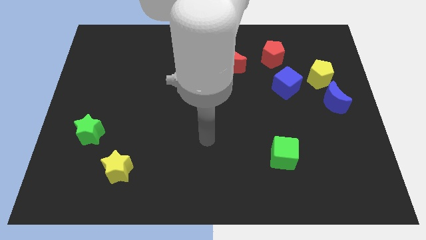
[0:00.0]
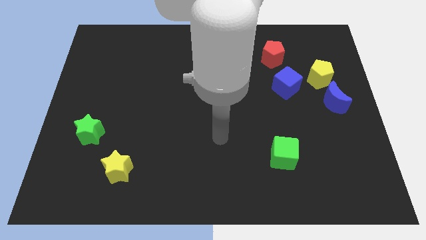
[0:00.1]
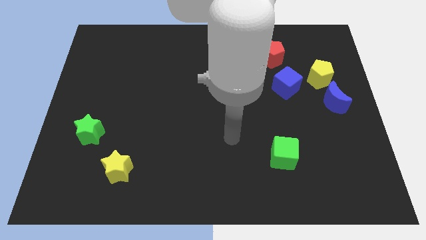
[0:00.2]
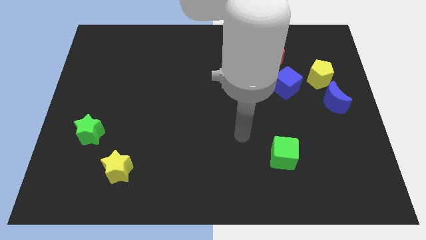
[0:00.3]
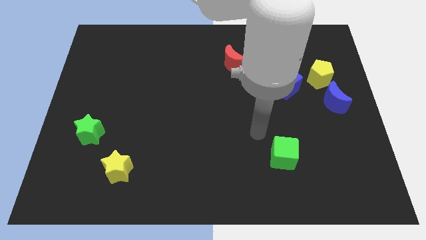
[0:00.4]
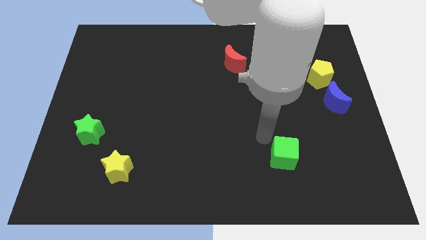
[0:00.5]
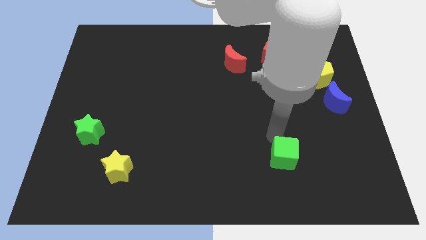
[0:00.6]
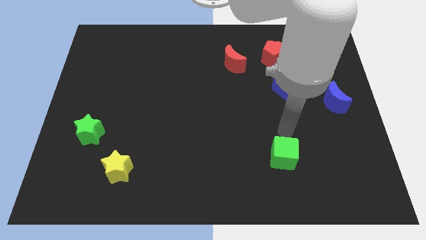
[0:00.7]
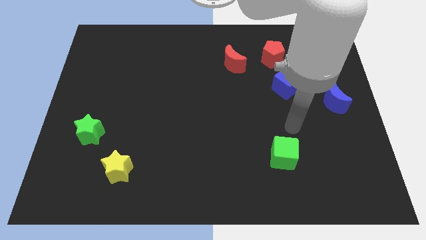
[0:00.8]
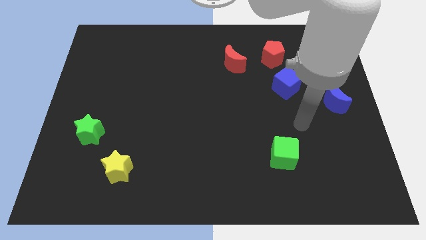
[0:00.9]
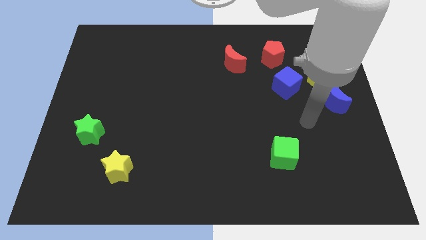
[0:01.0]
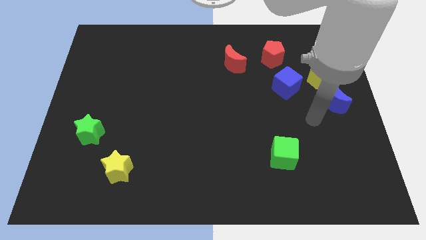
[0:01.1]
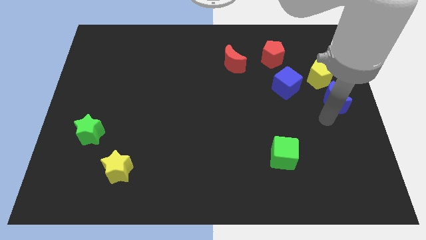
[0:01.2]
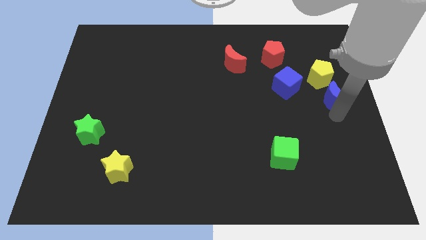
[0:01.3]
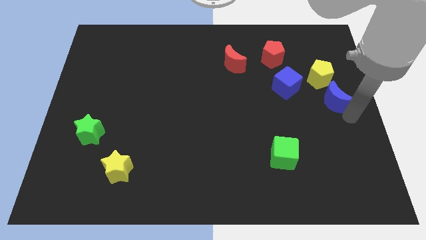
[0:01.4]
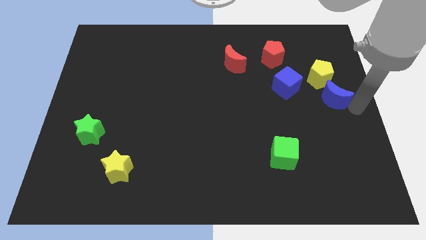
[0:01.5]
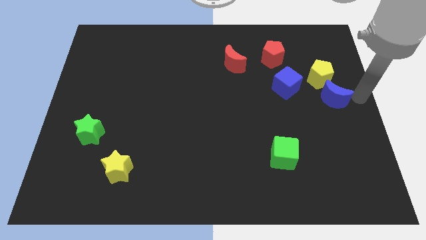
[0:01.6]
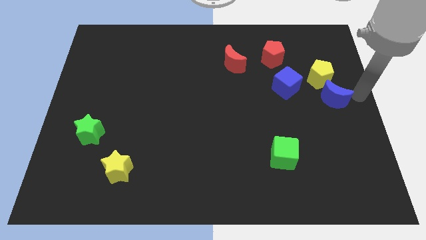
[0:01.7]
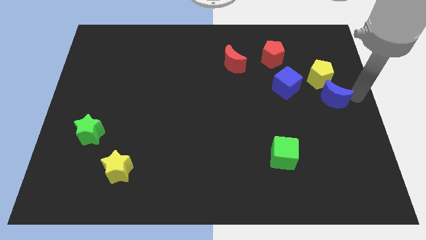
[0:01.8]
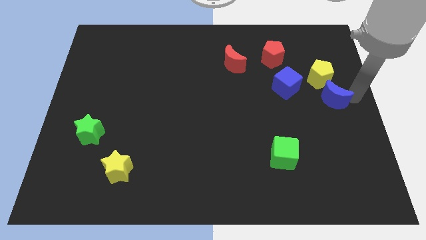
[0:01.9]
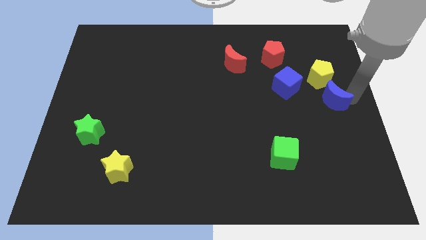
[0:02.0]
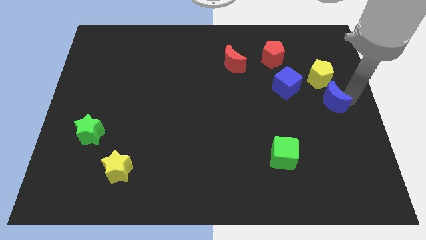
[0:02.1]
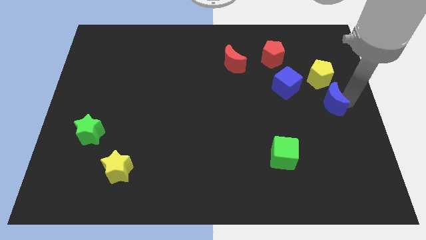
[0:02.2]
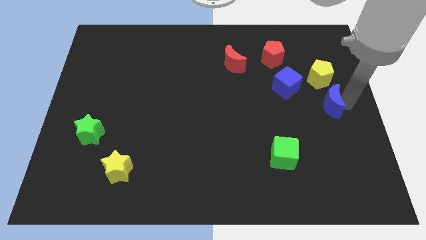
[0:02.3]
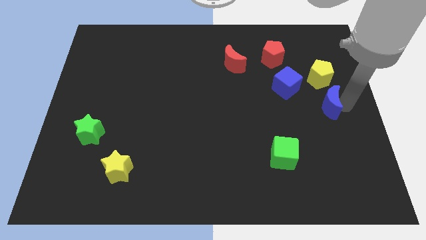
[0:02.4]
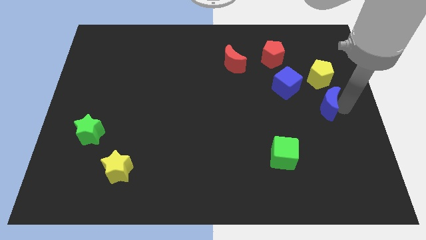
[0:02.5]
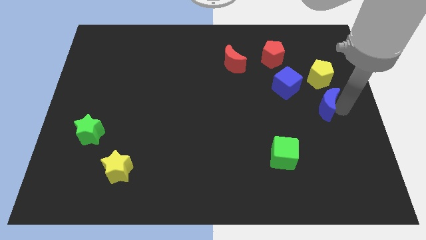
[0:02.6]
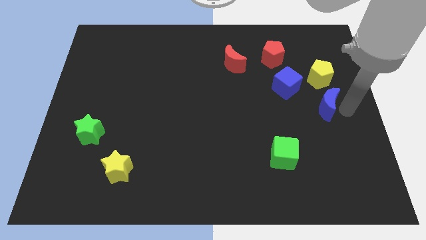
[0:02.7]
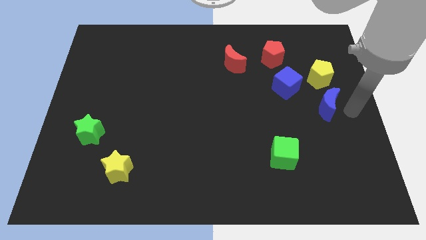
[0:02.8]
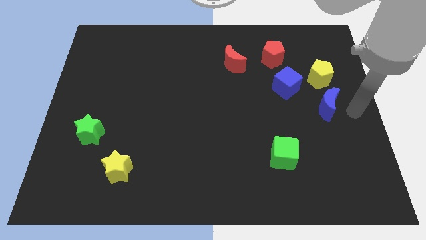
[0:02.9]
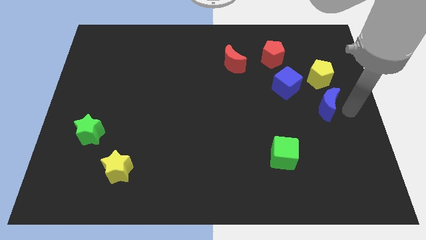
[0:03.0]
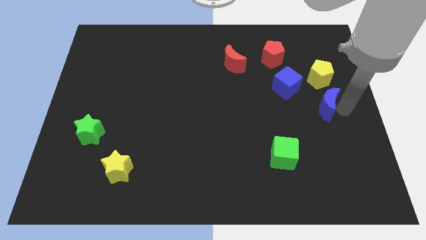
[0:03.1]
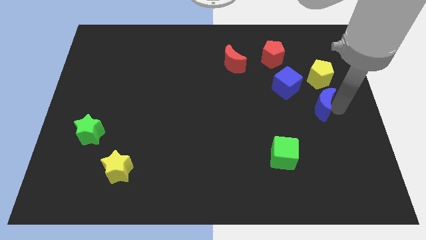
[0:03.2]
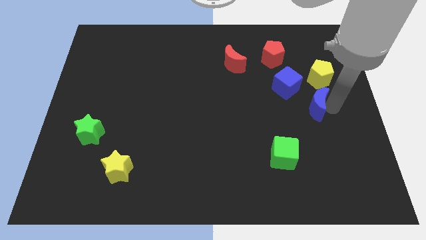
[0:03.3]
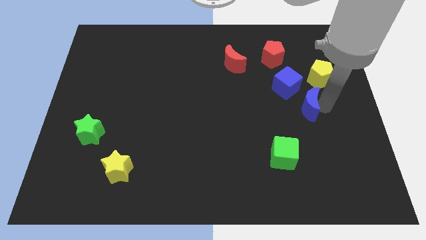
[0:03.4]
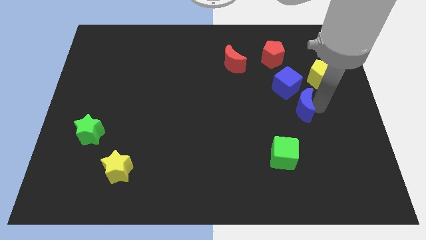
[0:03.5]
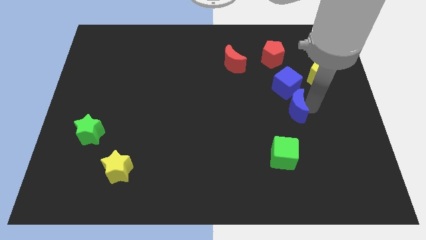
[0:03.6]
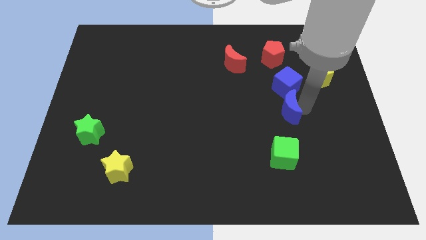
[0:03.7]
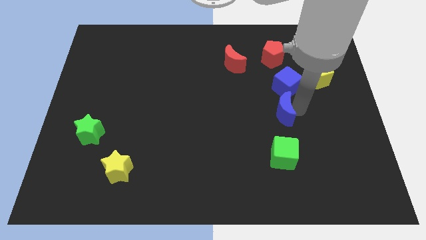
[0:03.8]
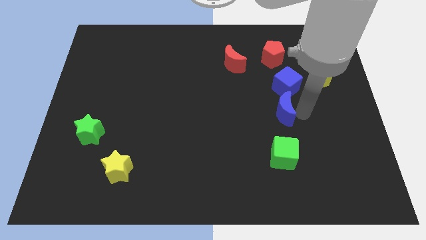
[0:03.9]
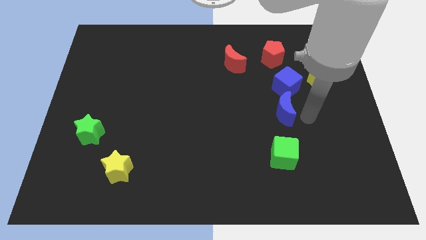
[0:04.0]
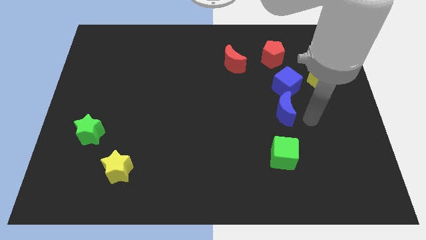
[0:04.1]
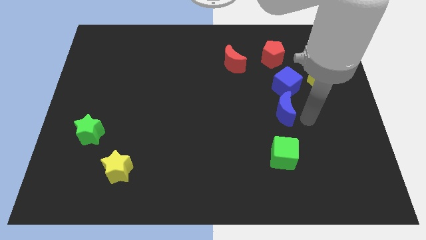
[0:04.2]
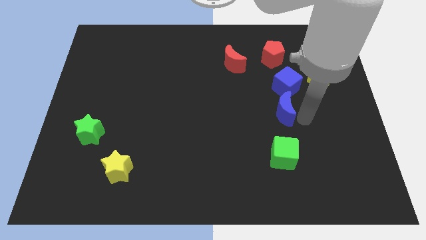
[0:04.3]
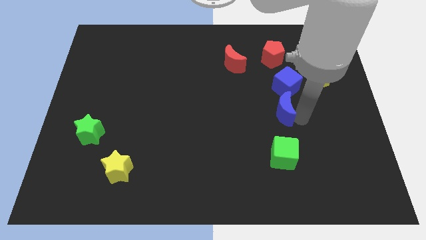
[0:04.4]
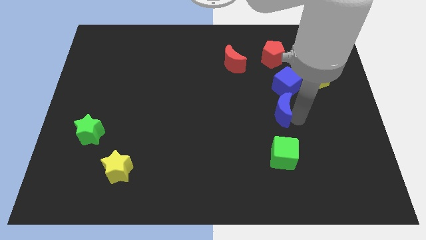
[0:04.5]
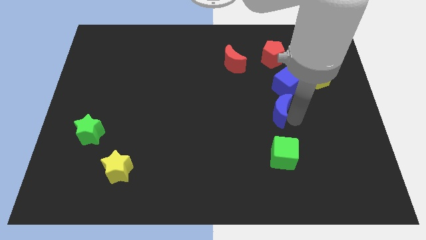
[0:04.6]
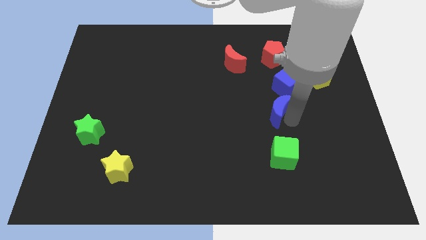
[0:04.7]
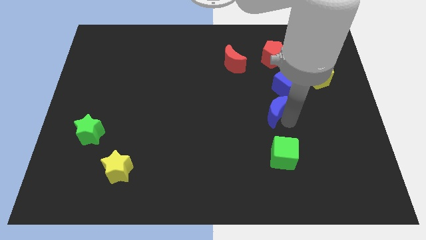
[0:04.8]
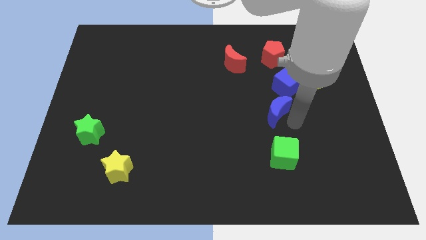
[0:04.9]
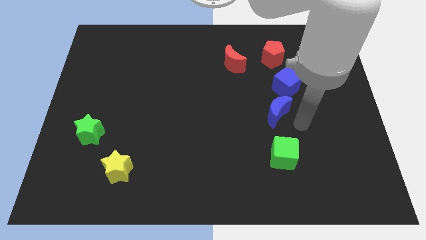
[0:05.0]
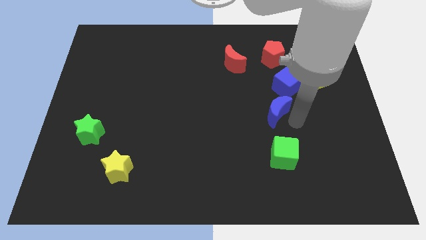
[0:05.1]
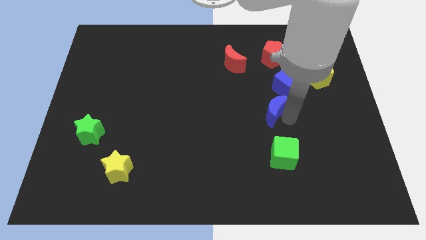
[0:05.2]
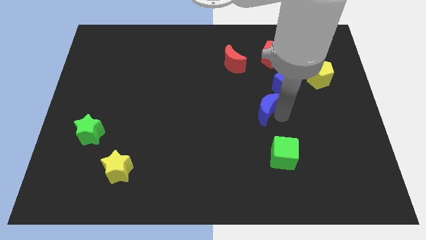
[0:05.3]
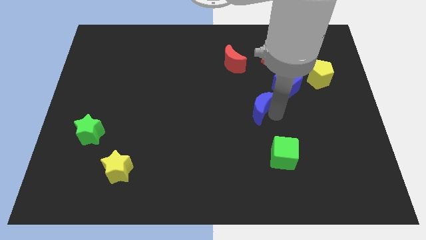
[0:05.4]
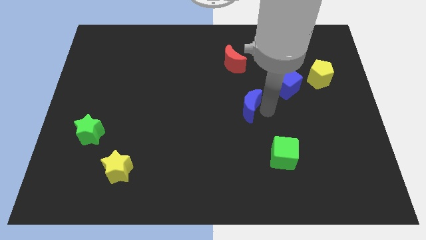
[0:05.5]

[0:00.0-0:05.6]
push the blue moon left

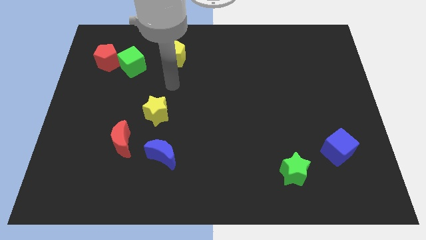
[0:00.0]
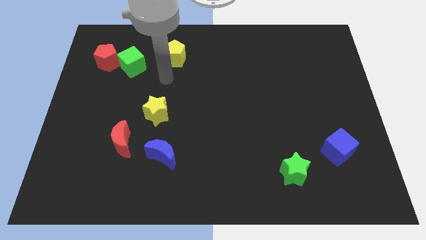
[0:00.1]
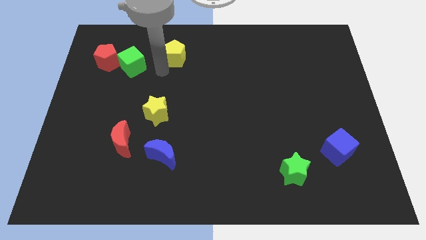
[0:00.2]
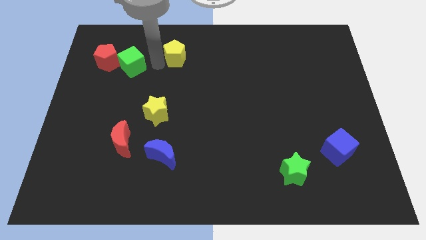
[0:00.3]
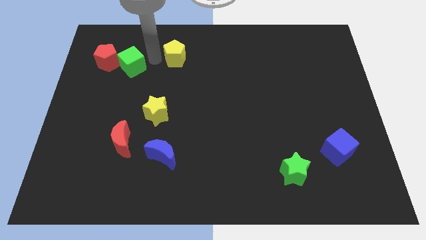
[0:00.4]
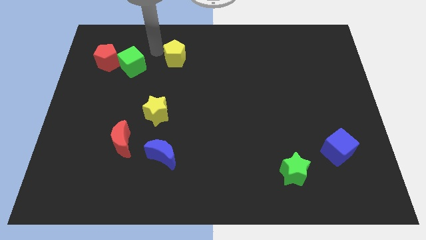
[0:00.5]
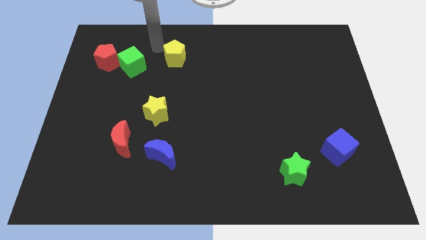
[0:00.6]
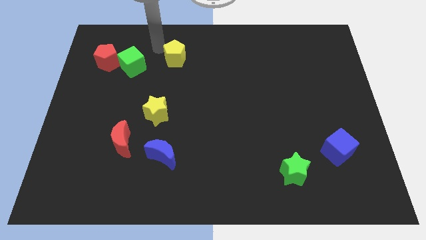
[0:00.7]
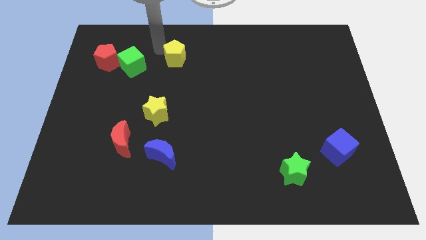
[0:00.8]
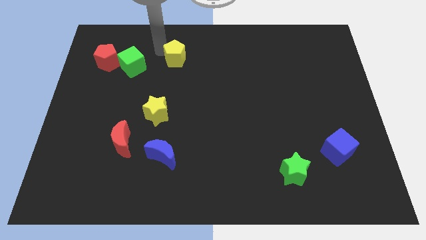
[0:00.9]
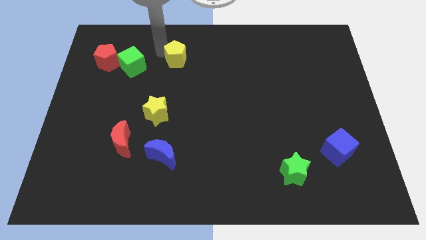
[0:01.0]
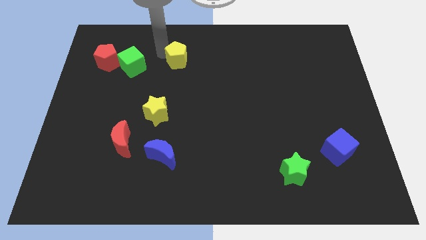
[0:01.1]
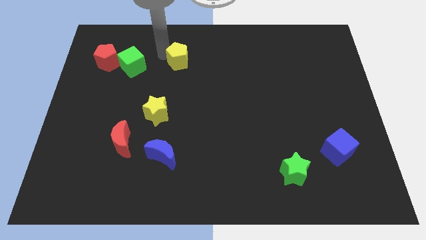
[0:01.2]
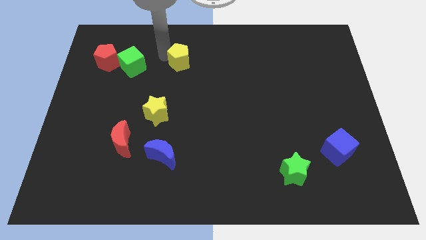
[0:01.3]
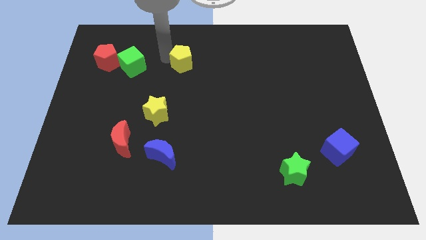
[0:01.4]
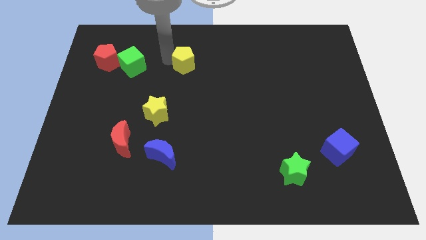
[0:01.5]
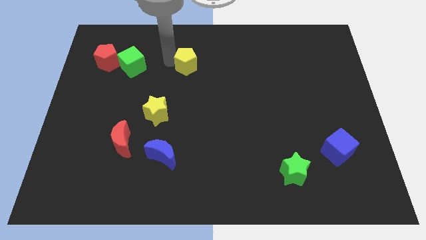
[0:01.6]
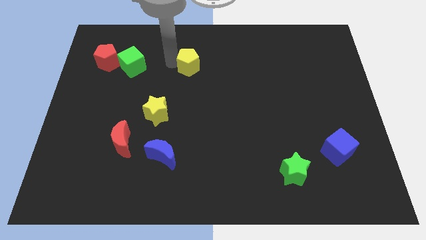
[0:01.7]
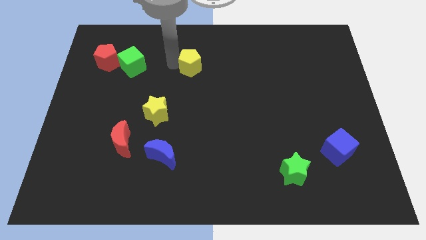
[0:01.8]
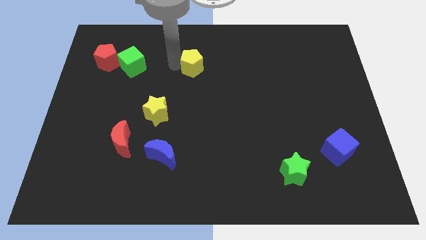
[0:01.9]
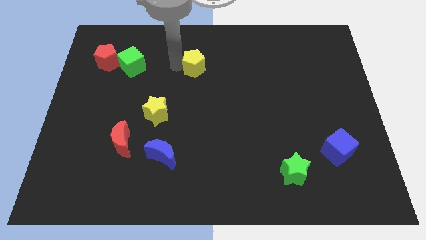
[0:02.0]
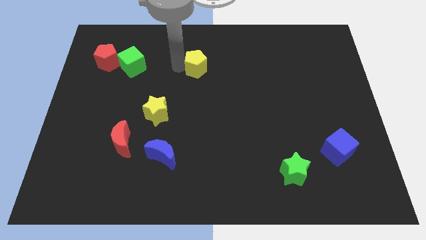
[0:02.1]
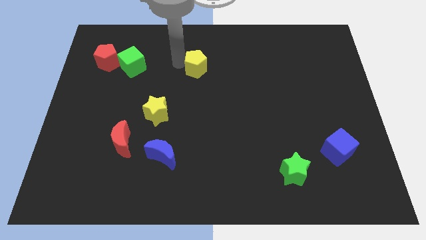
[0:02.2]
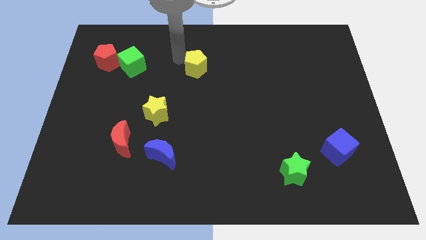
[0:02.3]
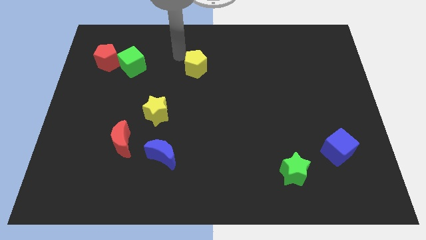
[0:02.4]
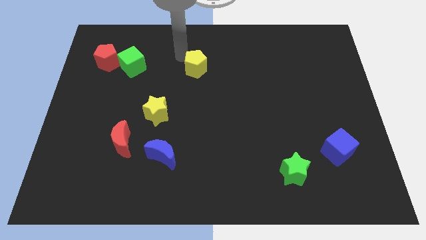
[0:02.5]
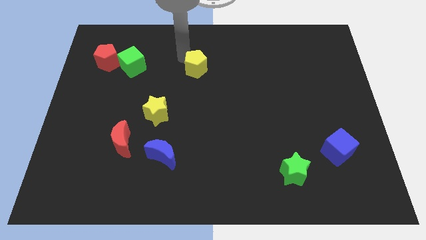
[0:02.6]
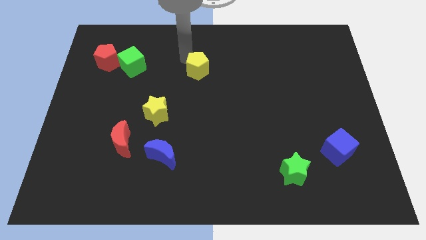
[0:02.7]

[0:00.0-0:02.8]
slide the yellow pentagon somewhat down and to the right
